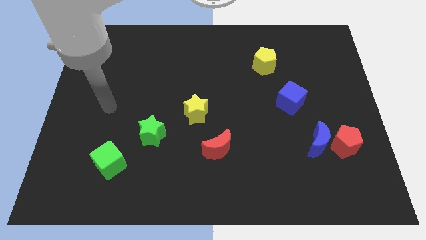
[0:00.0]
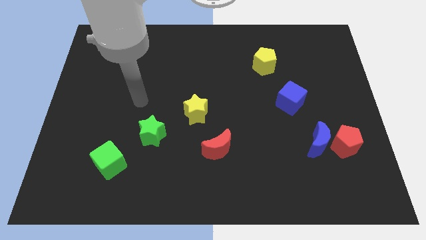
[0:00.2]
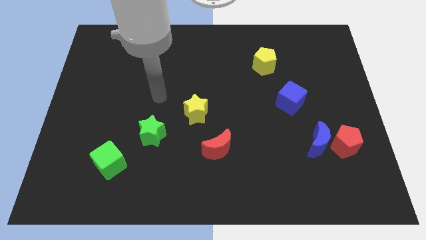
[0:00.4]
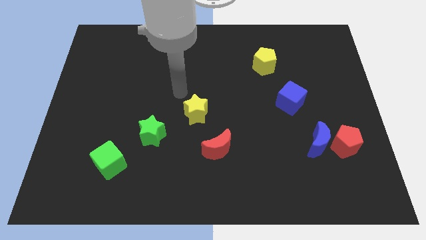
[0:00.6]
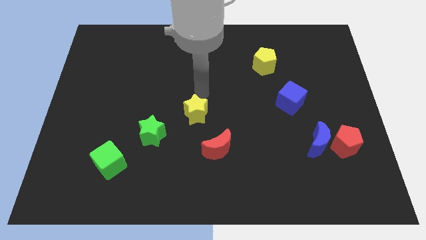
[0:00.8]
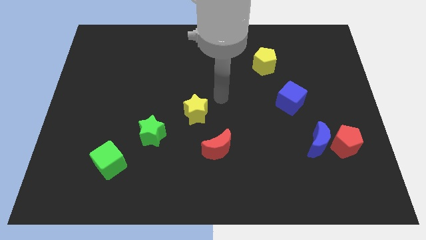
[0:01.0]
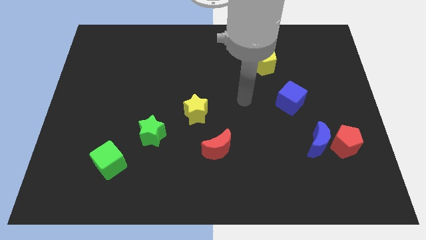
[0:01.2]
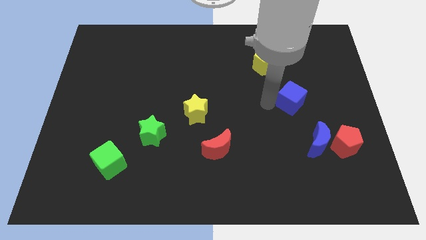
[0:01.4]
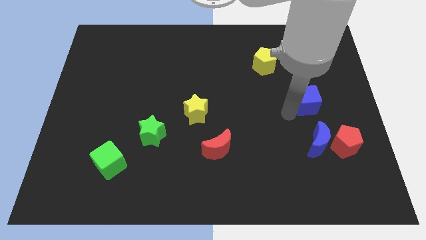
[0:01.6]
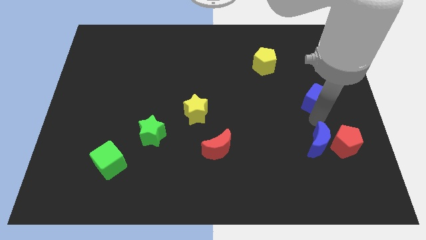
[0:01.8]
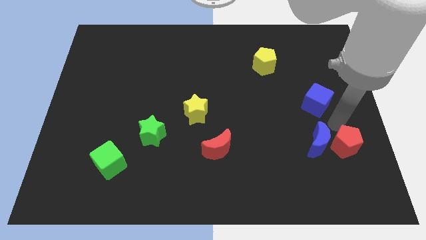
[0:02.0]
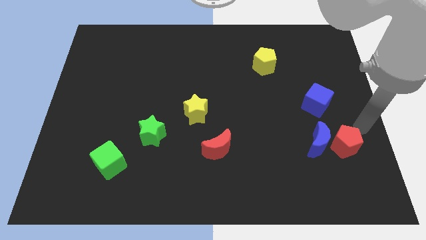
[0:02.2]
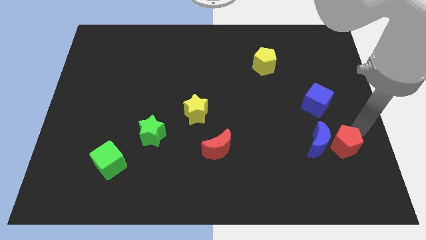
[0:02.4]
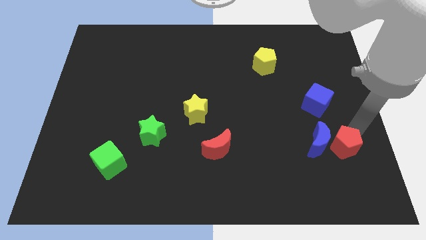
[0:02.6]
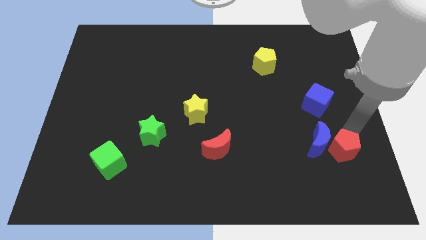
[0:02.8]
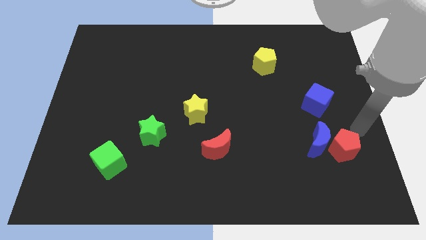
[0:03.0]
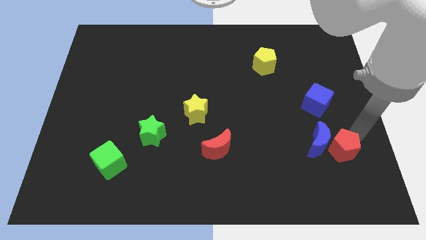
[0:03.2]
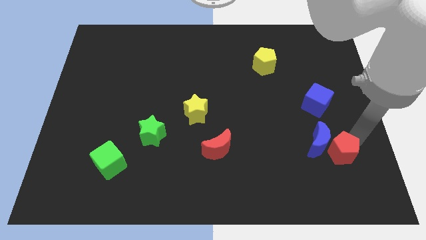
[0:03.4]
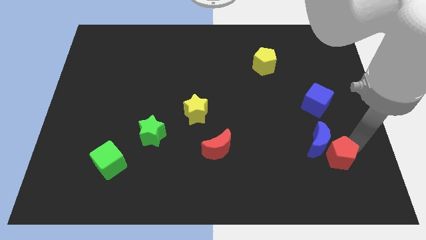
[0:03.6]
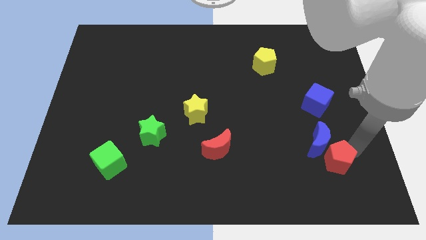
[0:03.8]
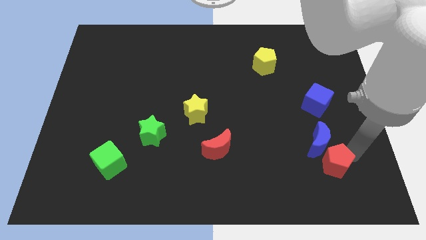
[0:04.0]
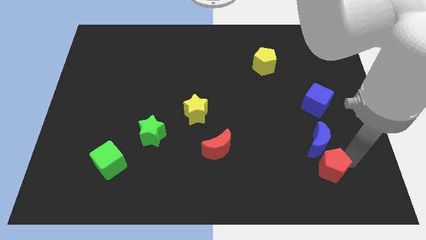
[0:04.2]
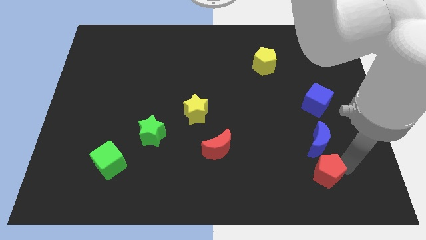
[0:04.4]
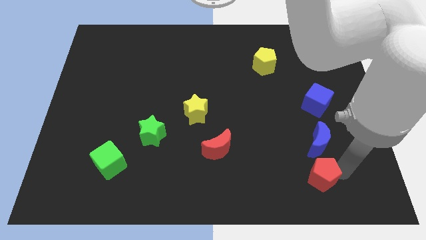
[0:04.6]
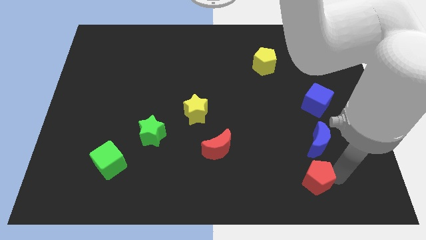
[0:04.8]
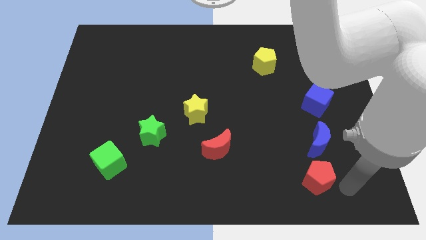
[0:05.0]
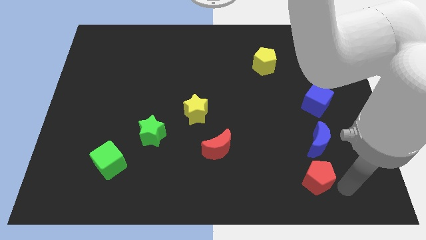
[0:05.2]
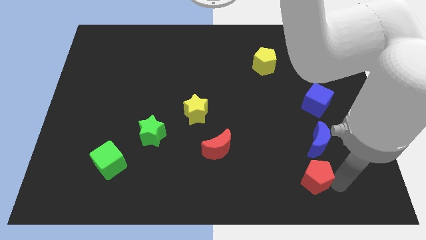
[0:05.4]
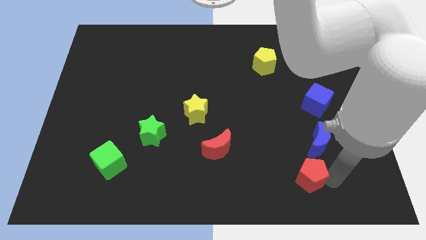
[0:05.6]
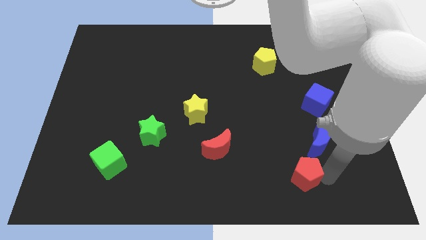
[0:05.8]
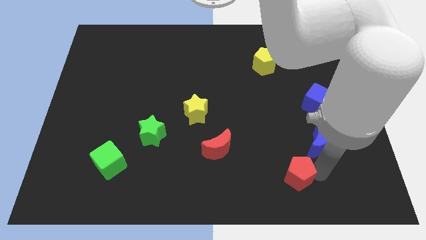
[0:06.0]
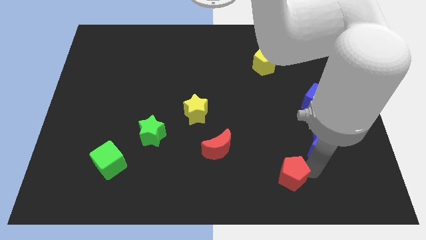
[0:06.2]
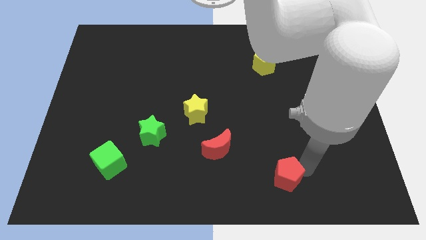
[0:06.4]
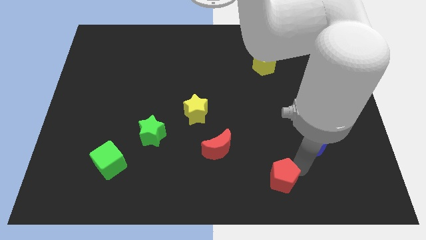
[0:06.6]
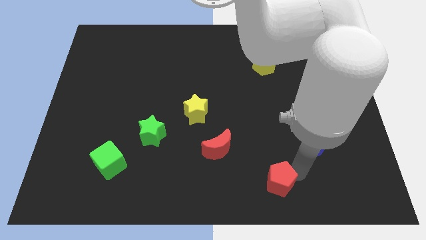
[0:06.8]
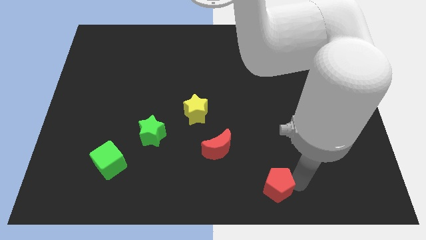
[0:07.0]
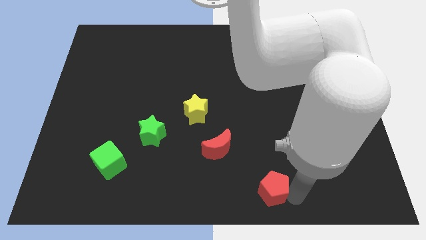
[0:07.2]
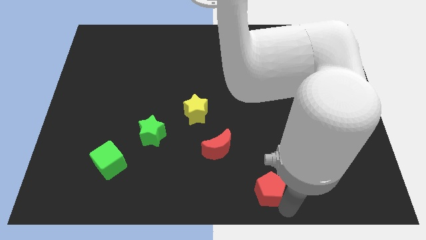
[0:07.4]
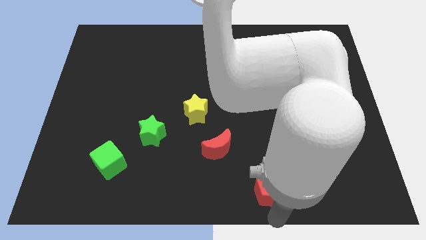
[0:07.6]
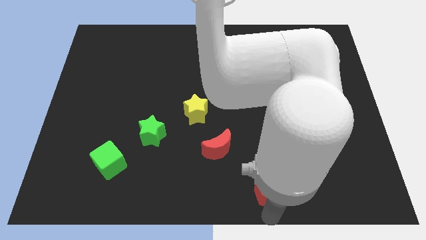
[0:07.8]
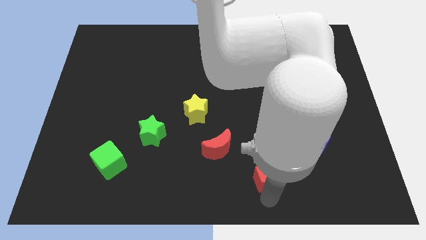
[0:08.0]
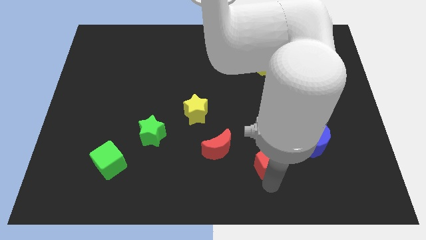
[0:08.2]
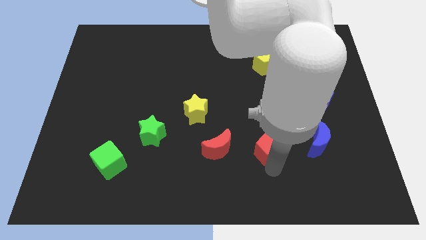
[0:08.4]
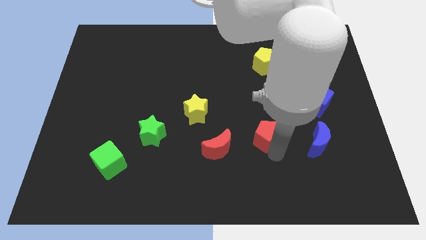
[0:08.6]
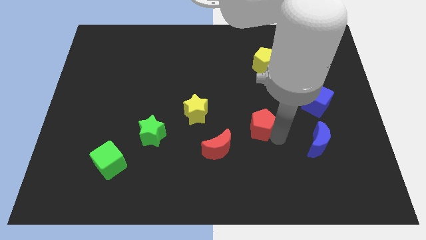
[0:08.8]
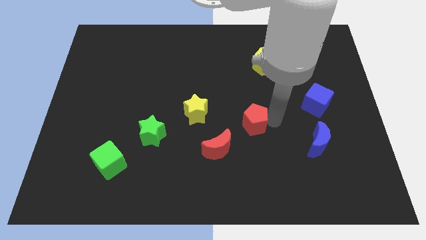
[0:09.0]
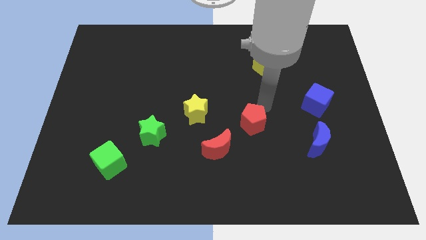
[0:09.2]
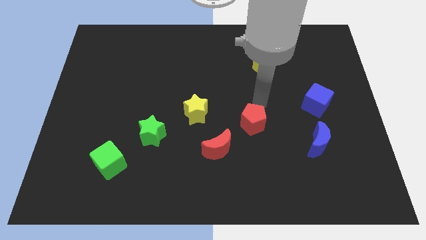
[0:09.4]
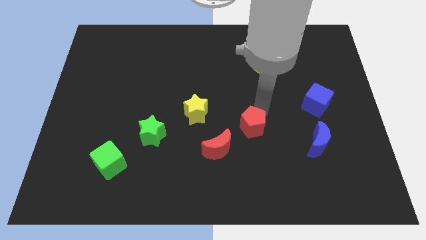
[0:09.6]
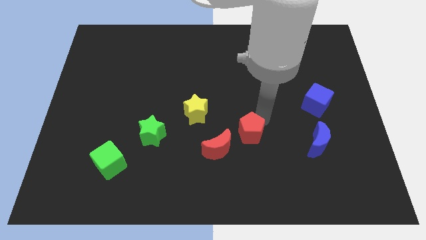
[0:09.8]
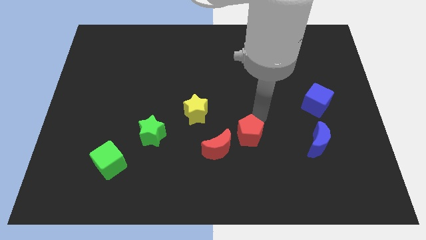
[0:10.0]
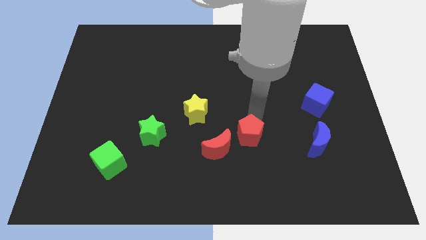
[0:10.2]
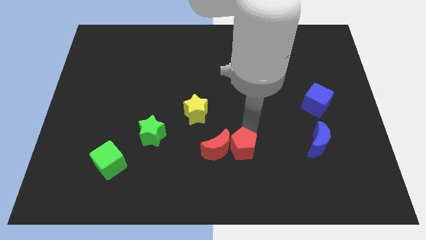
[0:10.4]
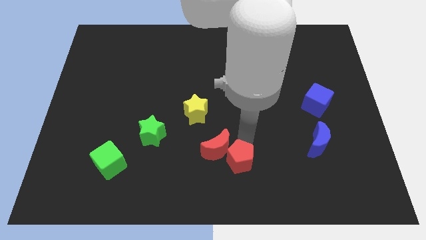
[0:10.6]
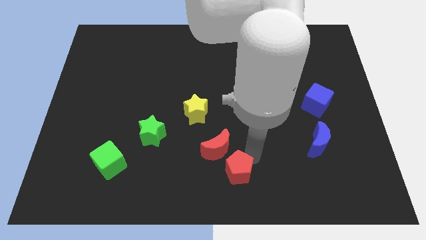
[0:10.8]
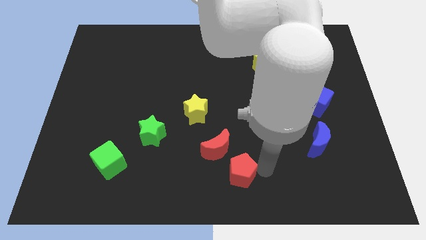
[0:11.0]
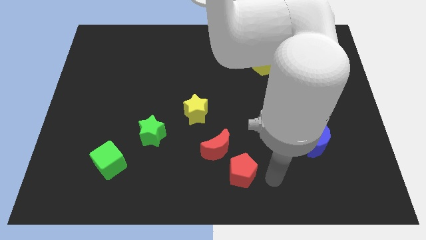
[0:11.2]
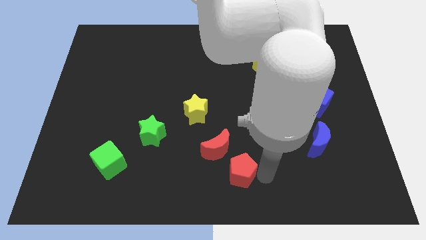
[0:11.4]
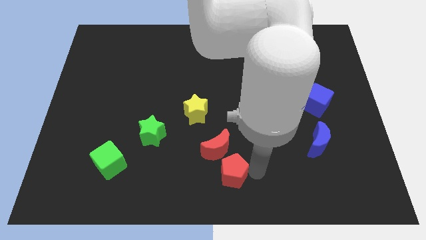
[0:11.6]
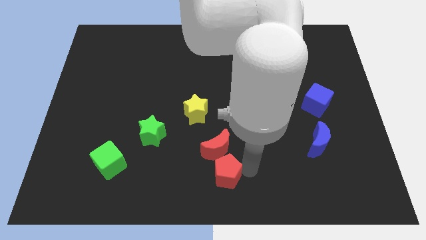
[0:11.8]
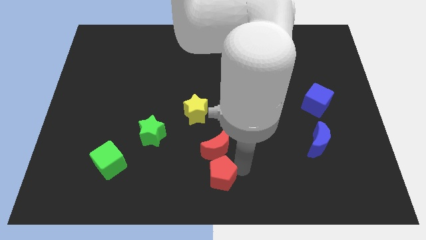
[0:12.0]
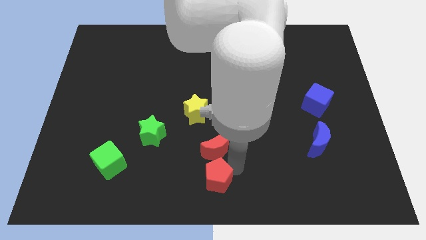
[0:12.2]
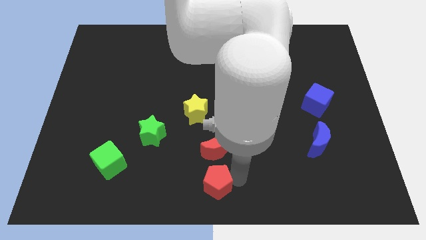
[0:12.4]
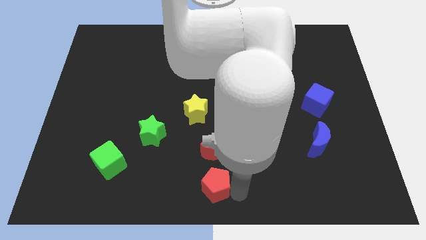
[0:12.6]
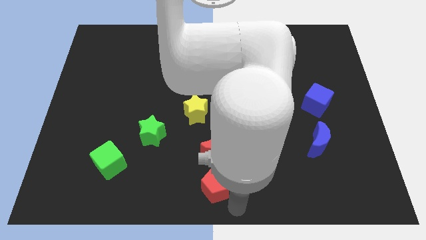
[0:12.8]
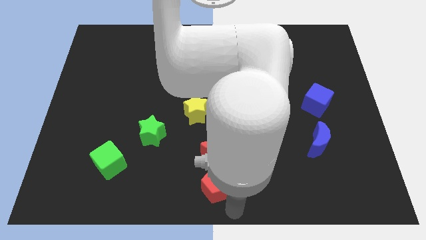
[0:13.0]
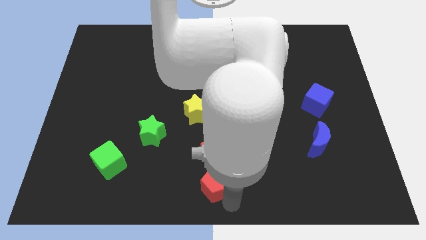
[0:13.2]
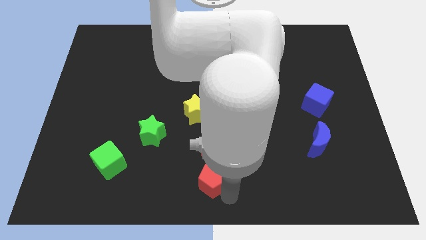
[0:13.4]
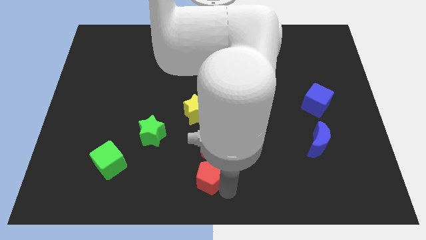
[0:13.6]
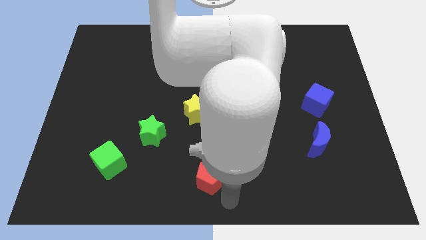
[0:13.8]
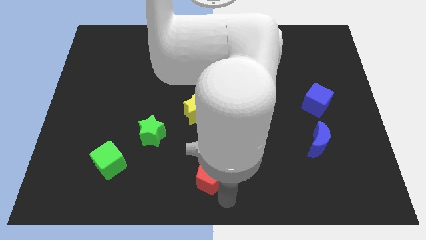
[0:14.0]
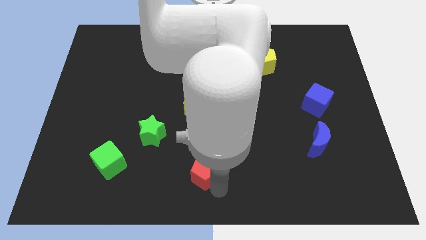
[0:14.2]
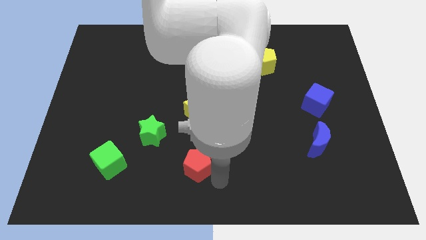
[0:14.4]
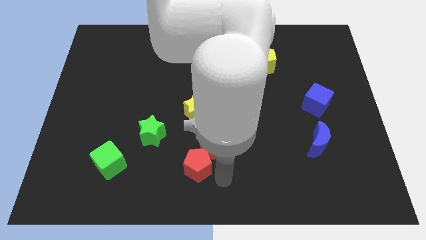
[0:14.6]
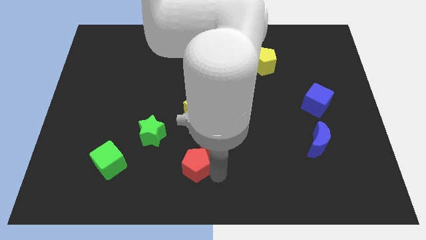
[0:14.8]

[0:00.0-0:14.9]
push the red pentagon to the bottom right side of the green star
